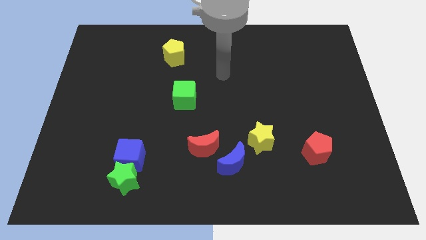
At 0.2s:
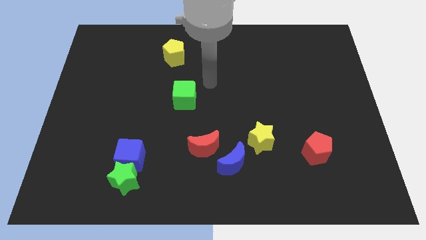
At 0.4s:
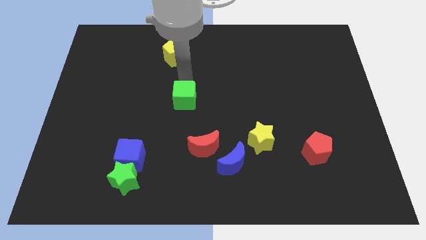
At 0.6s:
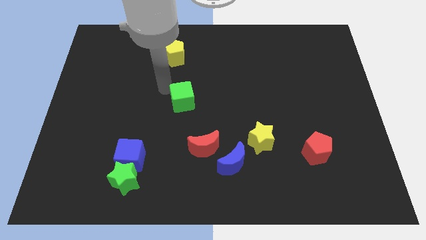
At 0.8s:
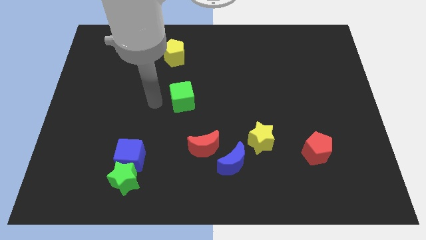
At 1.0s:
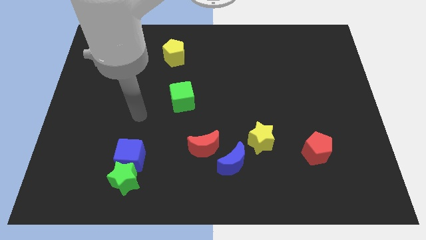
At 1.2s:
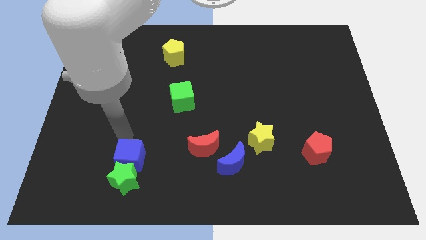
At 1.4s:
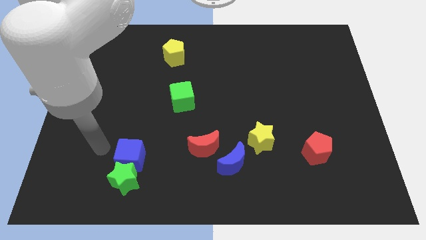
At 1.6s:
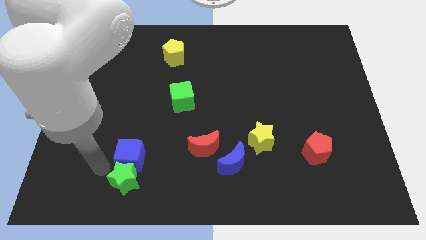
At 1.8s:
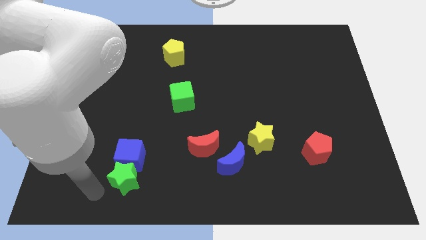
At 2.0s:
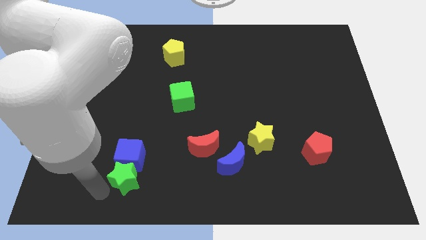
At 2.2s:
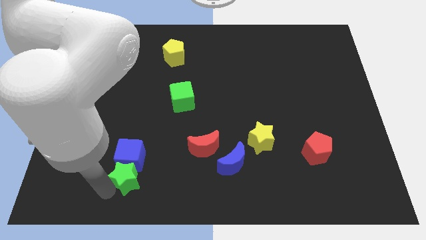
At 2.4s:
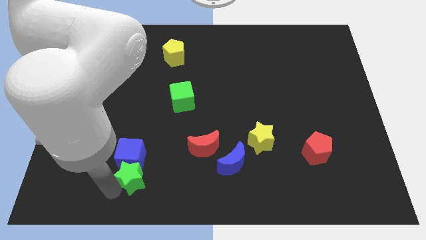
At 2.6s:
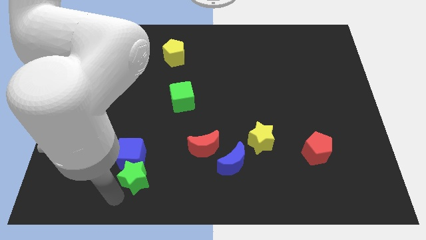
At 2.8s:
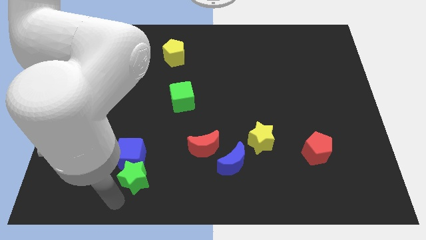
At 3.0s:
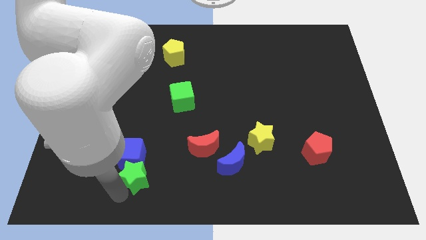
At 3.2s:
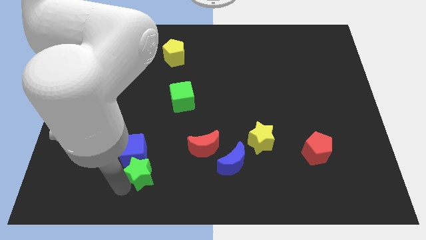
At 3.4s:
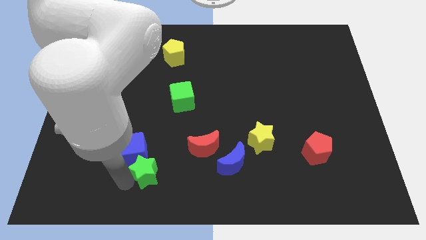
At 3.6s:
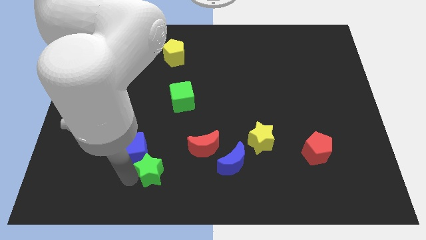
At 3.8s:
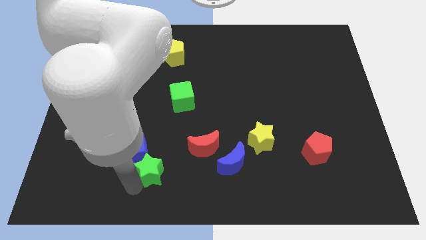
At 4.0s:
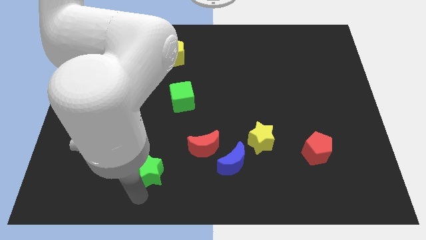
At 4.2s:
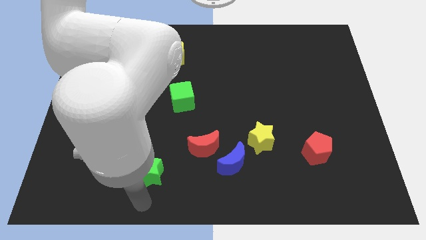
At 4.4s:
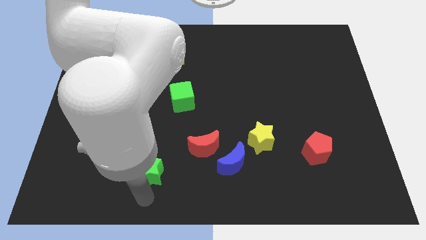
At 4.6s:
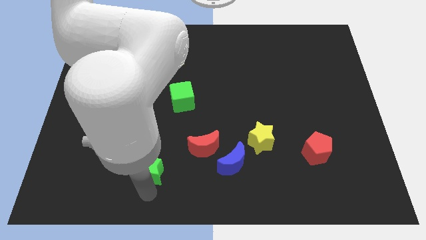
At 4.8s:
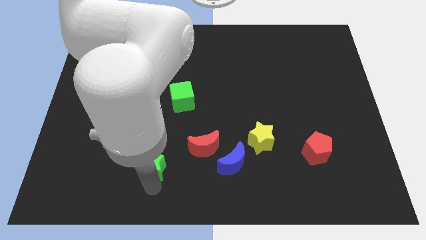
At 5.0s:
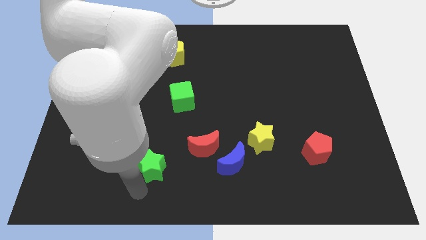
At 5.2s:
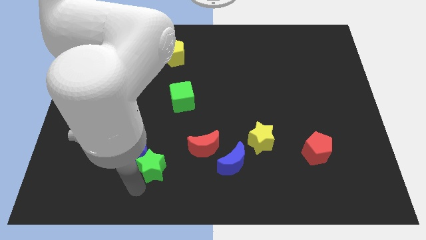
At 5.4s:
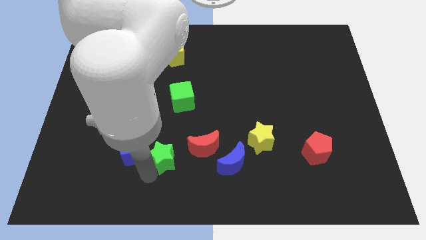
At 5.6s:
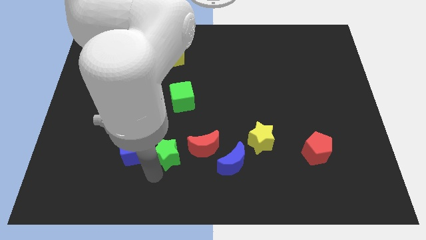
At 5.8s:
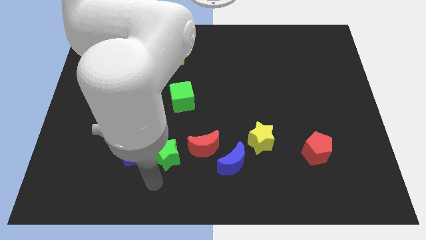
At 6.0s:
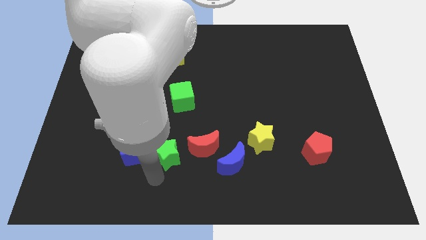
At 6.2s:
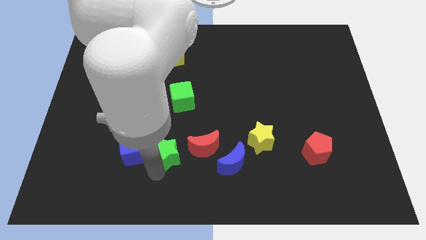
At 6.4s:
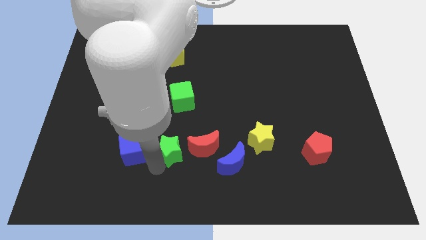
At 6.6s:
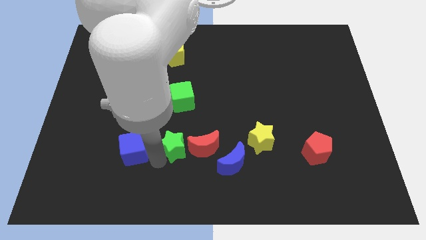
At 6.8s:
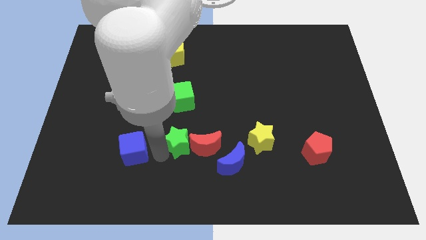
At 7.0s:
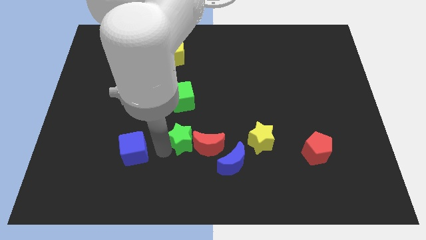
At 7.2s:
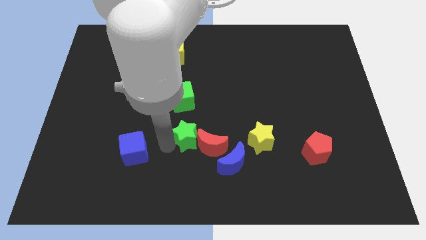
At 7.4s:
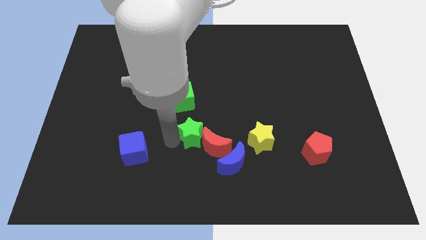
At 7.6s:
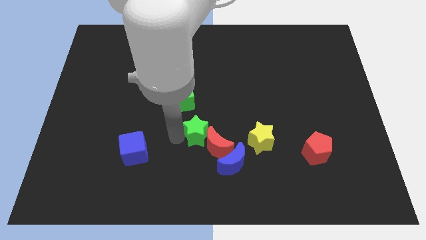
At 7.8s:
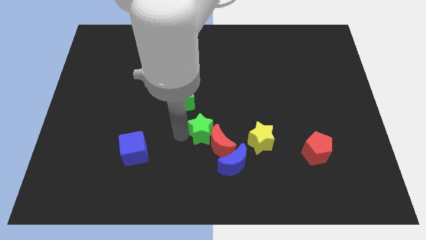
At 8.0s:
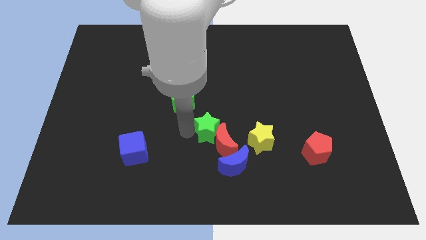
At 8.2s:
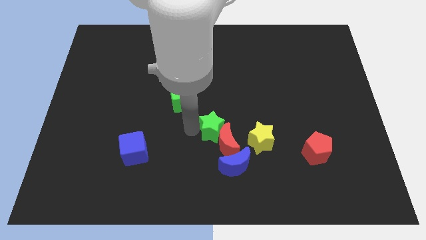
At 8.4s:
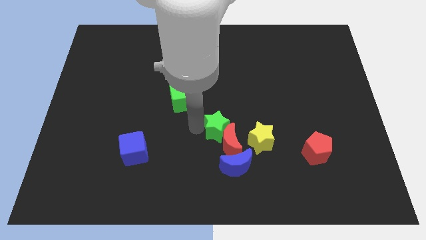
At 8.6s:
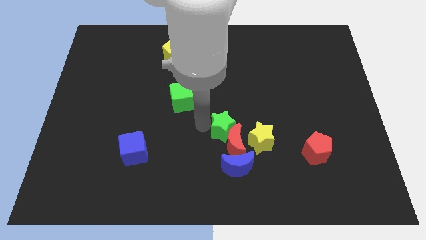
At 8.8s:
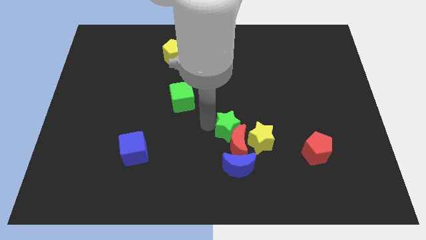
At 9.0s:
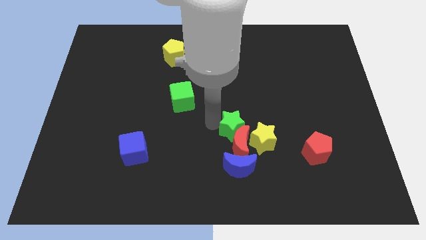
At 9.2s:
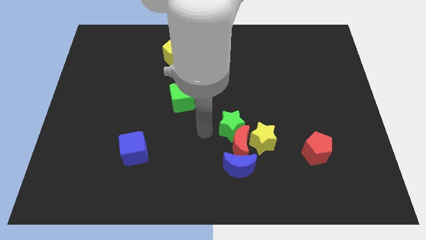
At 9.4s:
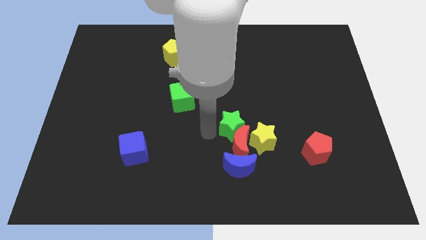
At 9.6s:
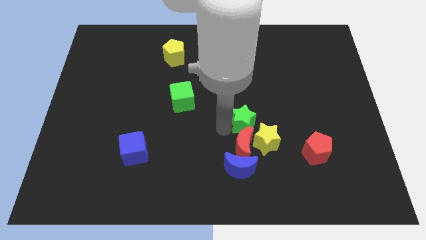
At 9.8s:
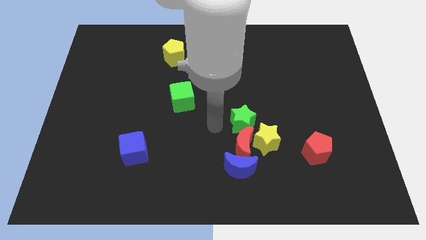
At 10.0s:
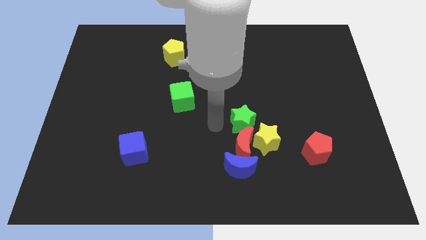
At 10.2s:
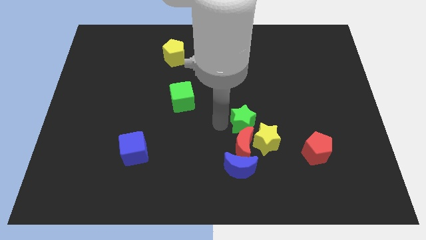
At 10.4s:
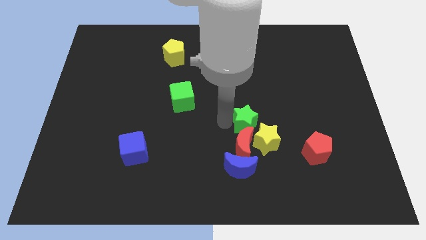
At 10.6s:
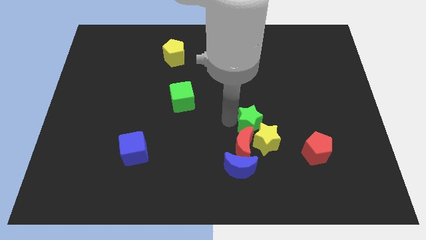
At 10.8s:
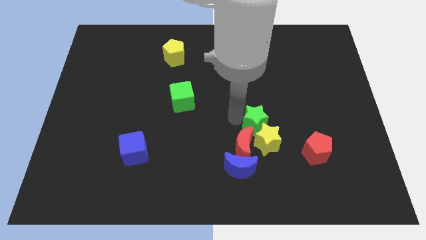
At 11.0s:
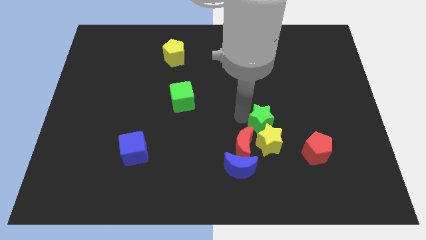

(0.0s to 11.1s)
push the green star diagonally up and to the right of the yellow star
